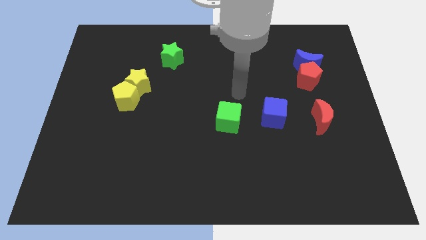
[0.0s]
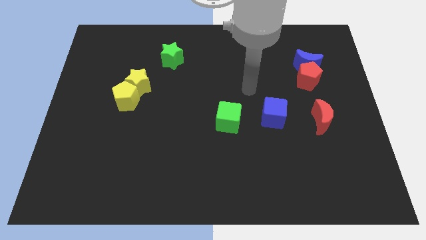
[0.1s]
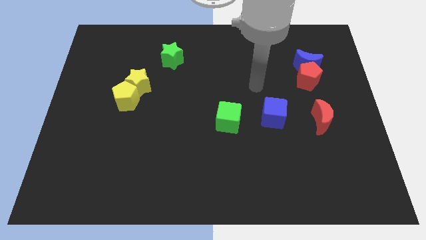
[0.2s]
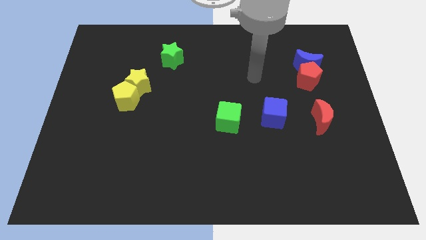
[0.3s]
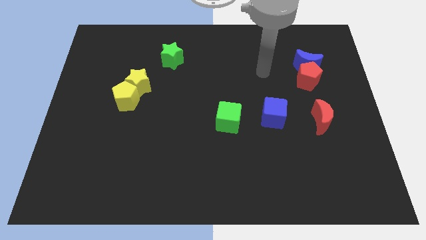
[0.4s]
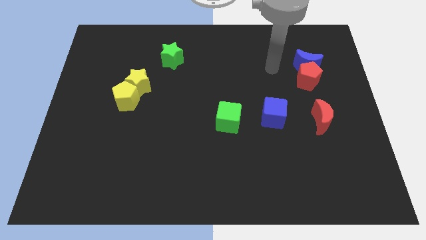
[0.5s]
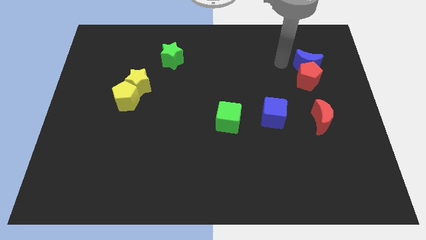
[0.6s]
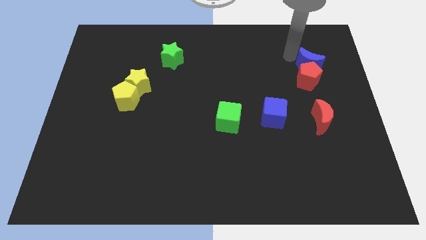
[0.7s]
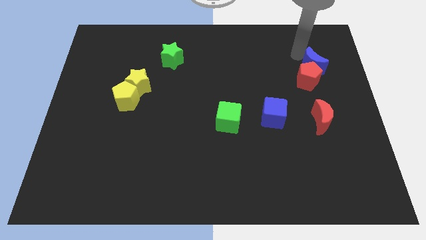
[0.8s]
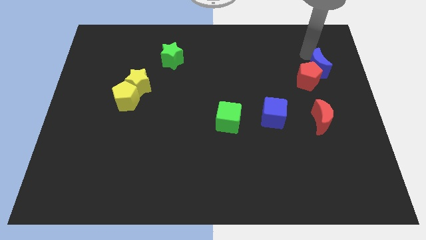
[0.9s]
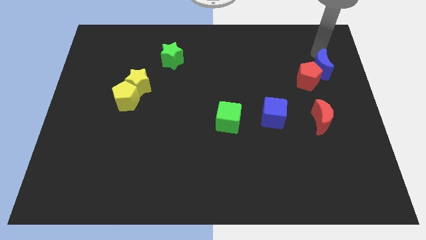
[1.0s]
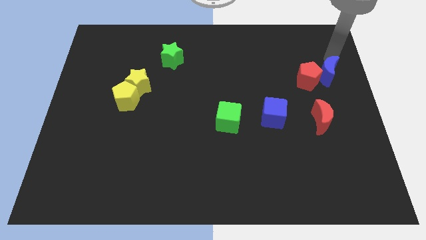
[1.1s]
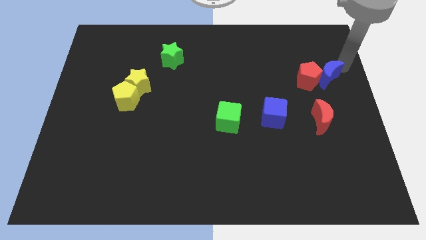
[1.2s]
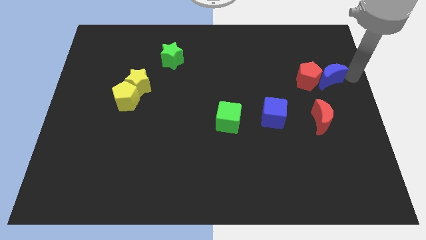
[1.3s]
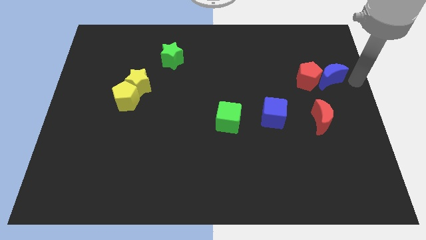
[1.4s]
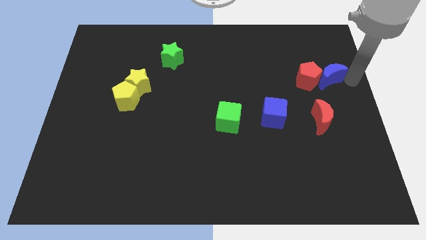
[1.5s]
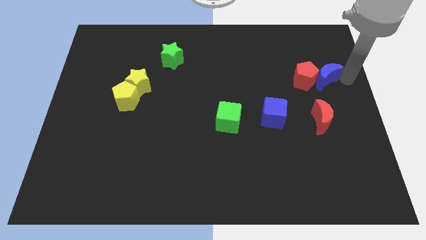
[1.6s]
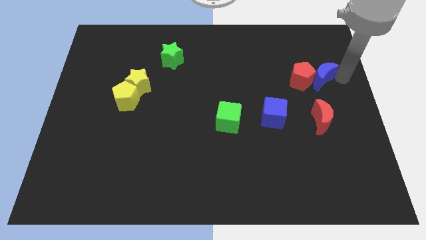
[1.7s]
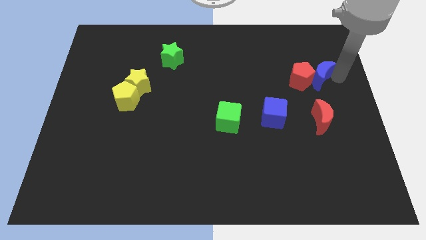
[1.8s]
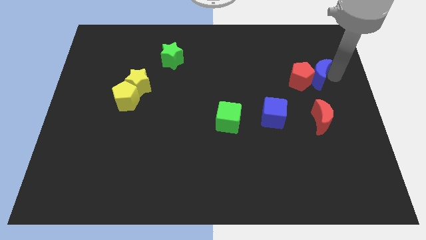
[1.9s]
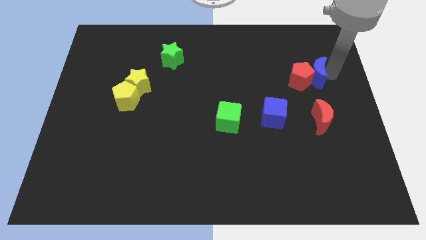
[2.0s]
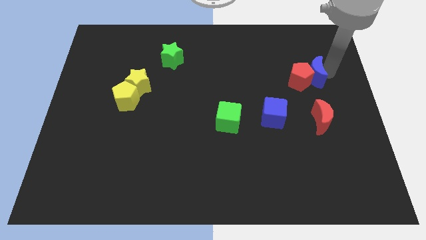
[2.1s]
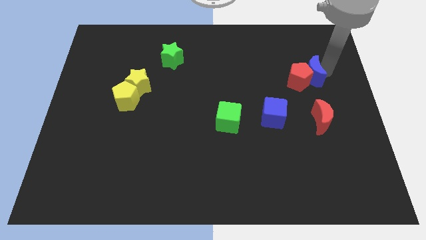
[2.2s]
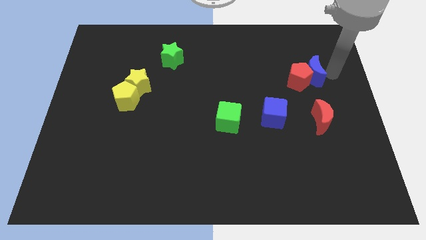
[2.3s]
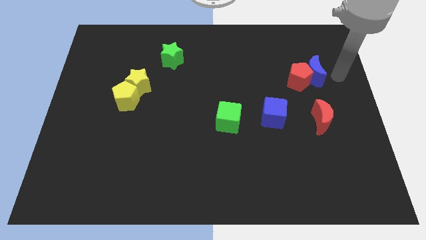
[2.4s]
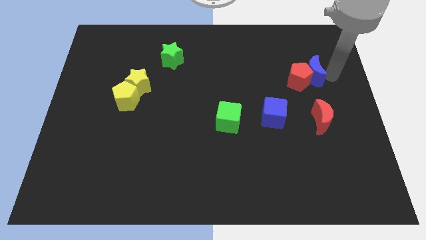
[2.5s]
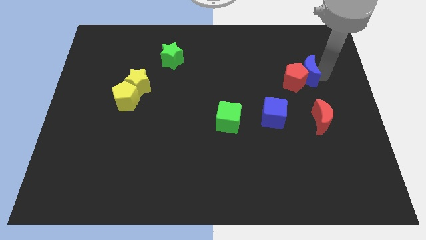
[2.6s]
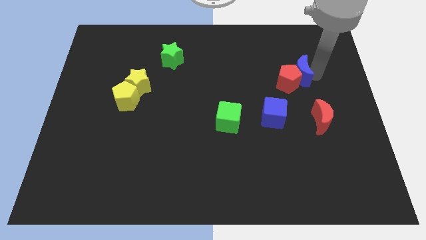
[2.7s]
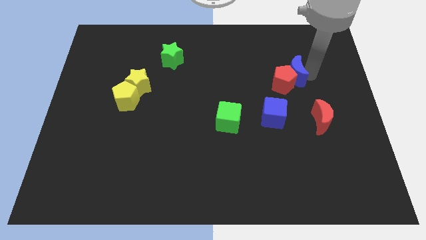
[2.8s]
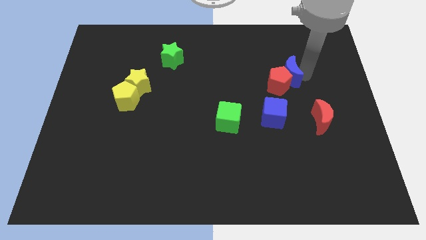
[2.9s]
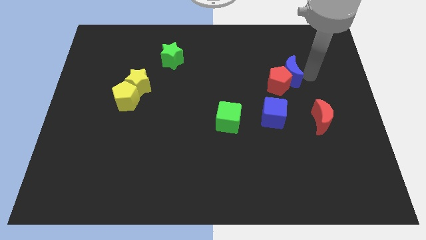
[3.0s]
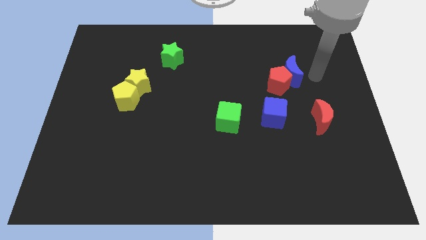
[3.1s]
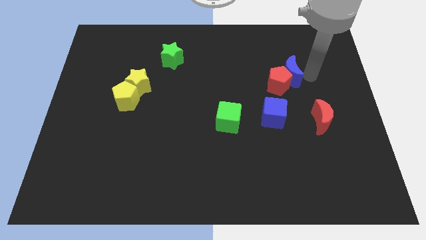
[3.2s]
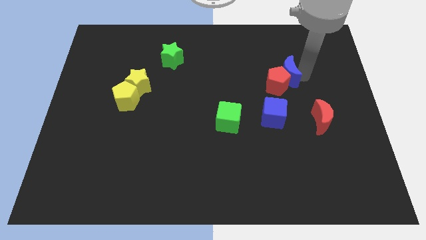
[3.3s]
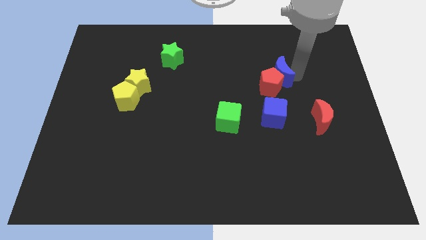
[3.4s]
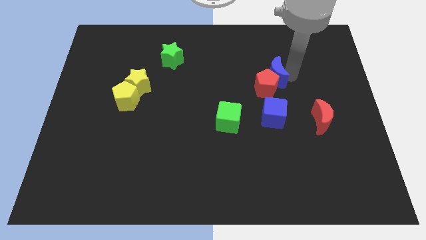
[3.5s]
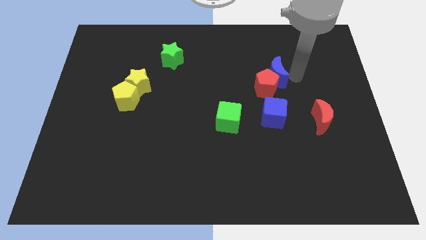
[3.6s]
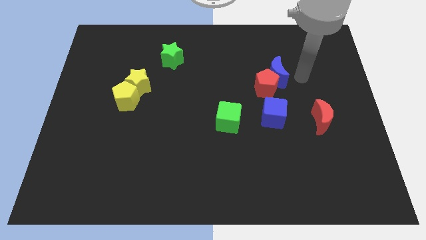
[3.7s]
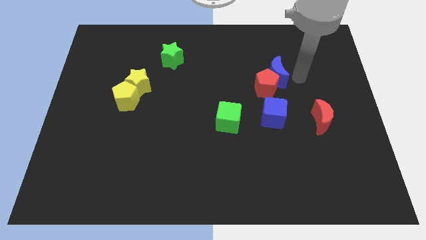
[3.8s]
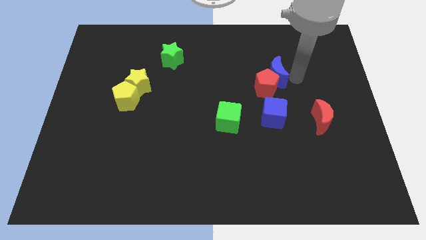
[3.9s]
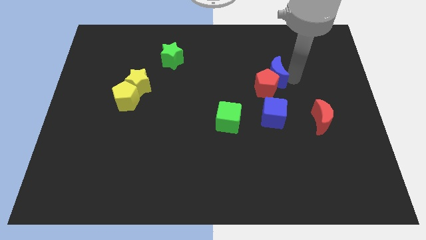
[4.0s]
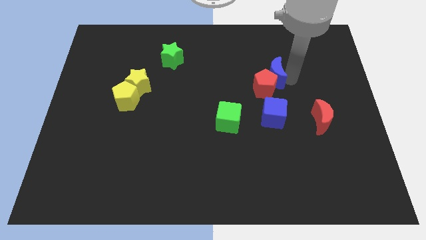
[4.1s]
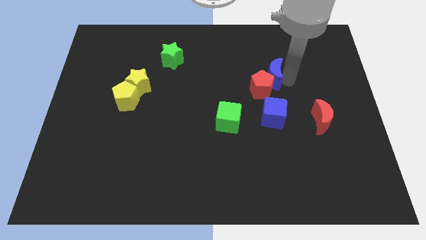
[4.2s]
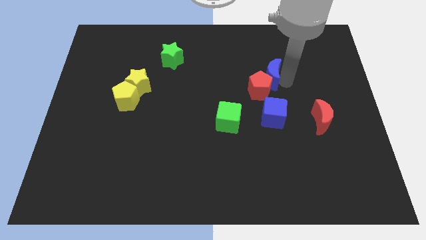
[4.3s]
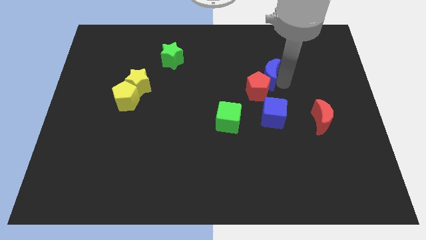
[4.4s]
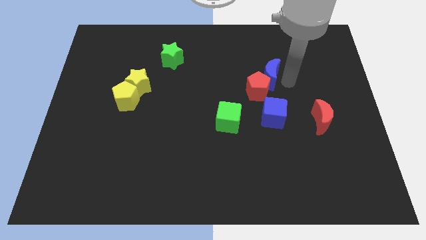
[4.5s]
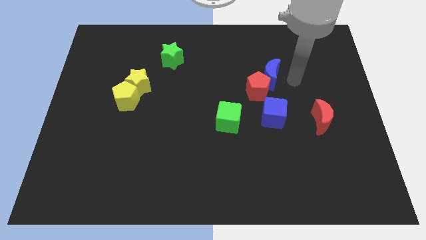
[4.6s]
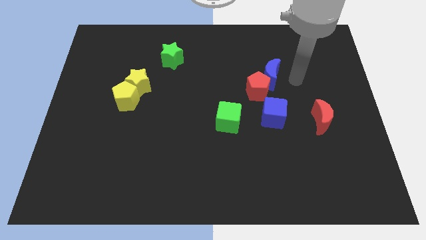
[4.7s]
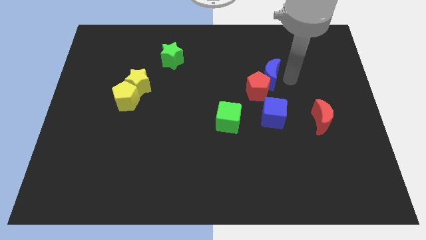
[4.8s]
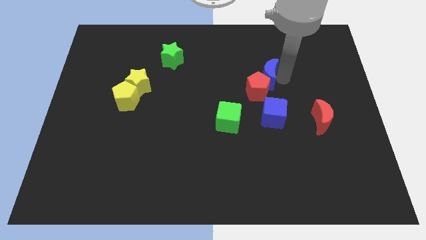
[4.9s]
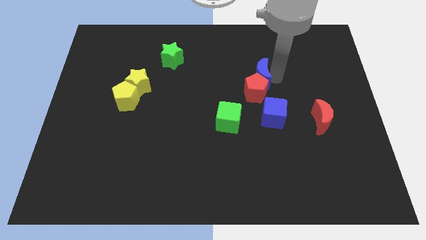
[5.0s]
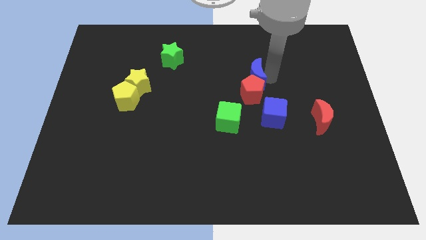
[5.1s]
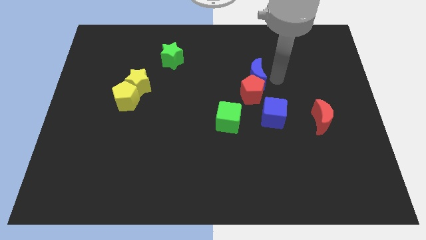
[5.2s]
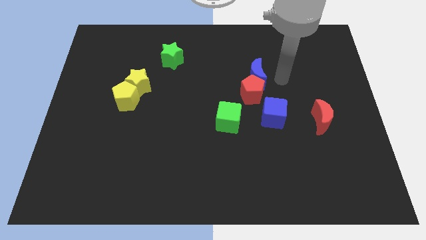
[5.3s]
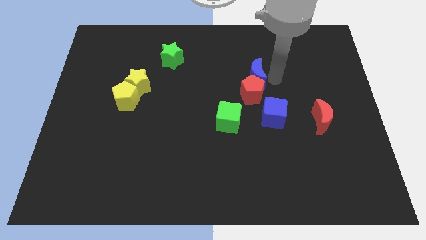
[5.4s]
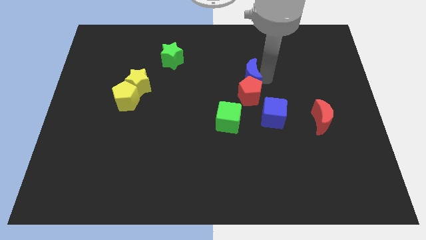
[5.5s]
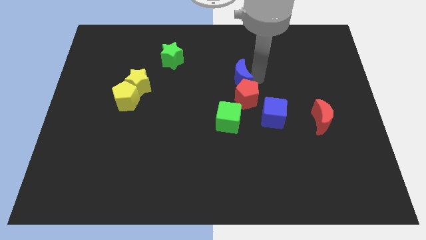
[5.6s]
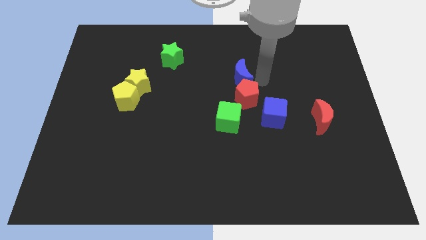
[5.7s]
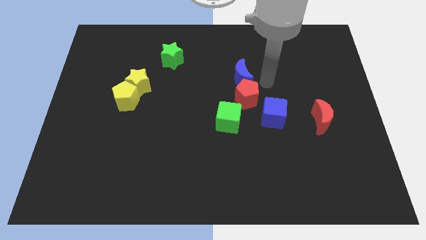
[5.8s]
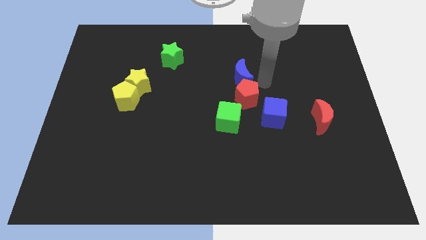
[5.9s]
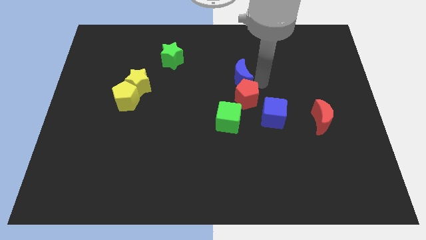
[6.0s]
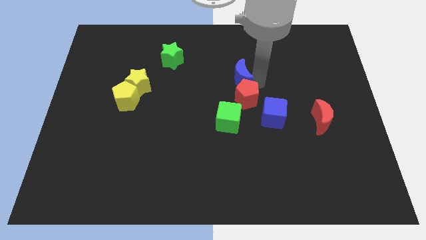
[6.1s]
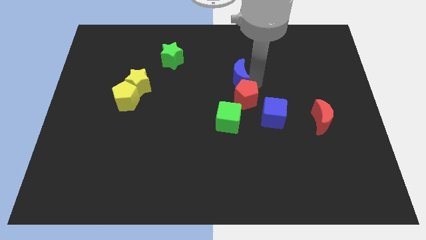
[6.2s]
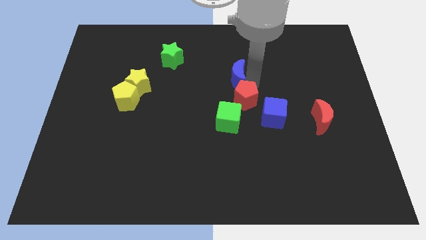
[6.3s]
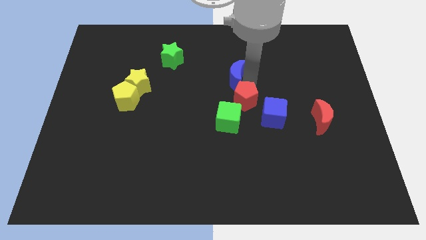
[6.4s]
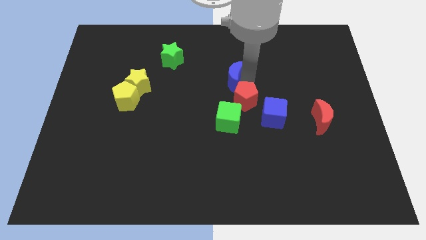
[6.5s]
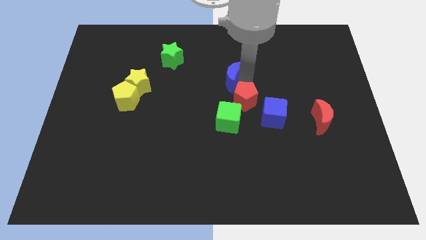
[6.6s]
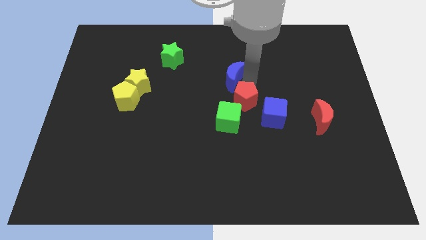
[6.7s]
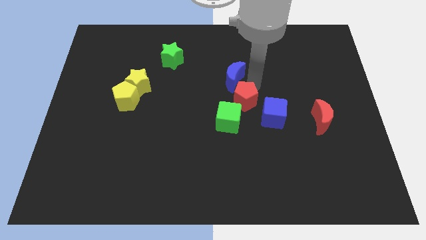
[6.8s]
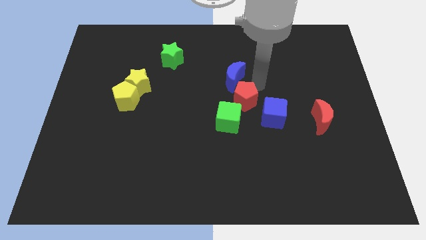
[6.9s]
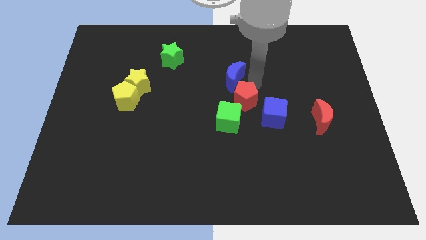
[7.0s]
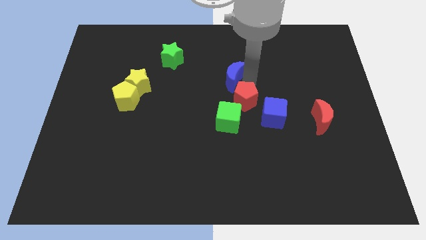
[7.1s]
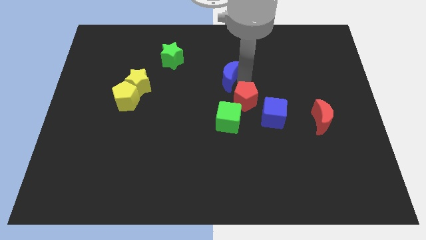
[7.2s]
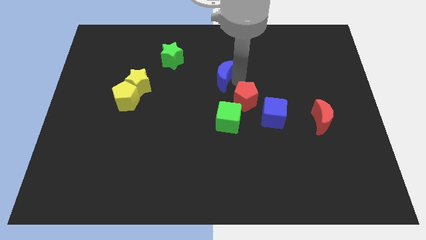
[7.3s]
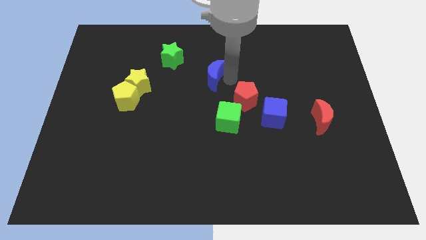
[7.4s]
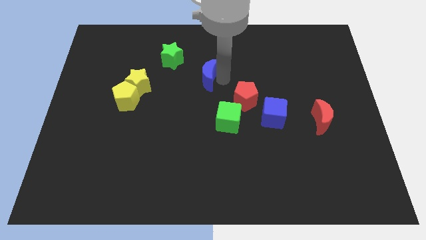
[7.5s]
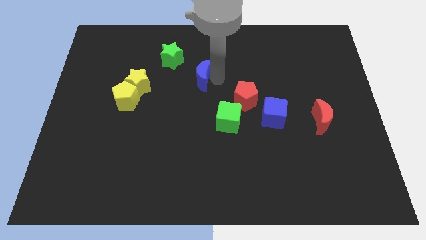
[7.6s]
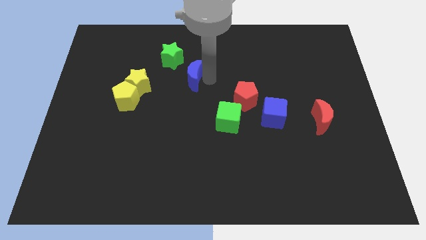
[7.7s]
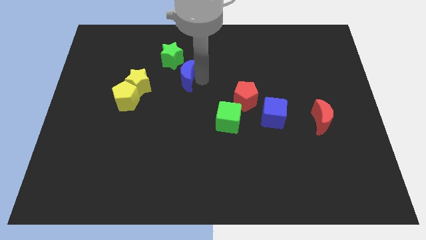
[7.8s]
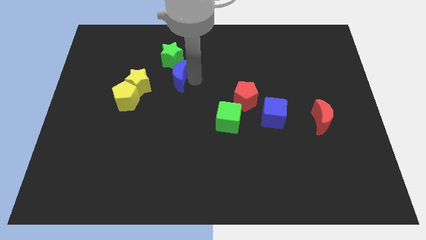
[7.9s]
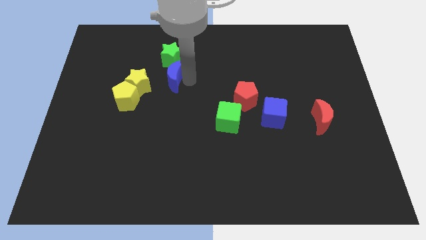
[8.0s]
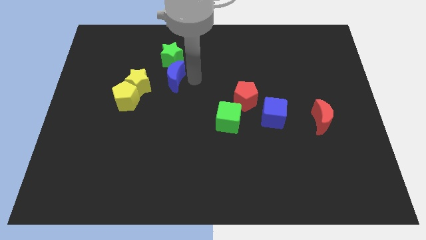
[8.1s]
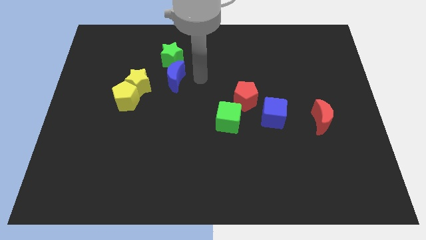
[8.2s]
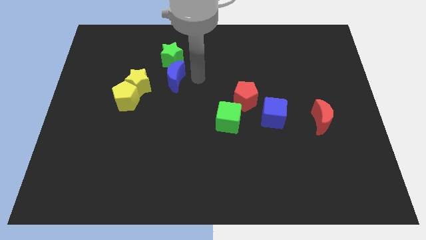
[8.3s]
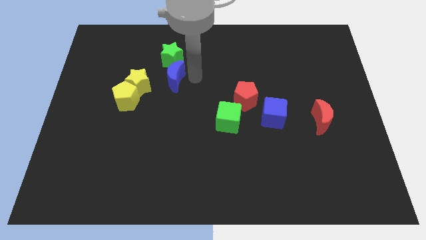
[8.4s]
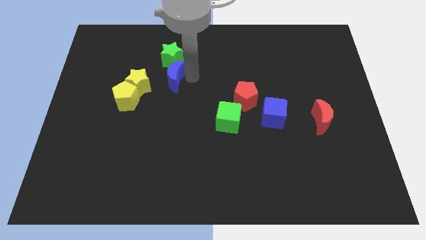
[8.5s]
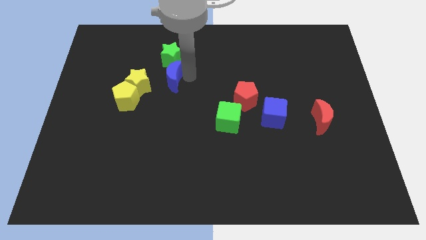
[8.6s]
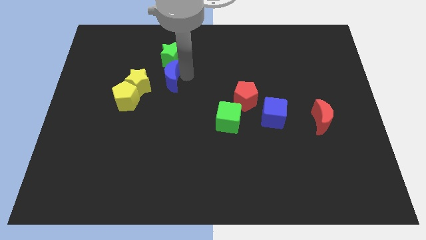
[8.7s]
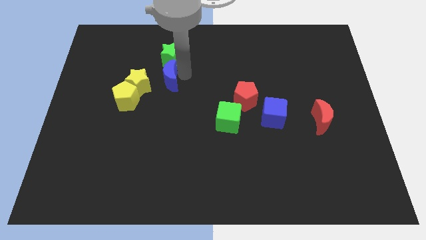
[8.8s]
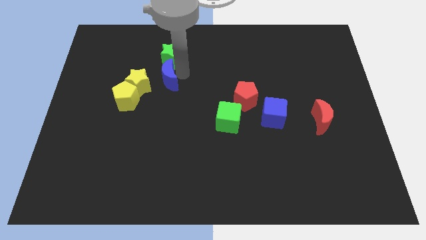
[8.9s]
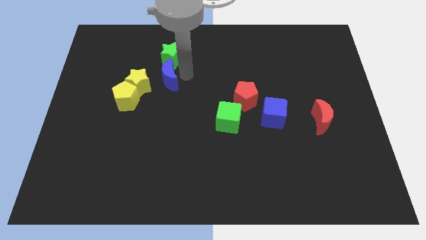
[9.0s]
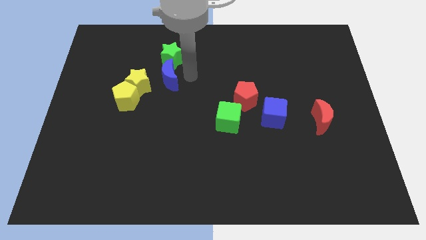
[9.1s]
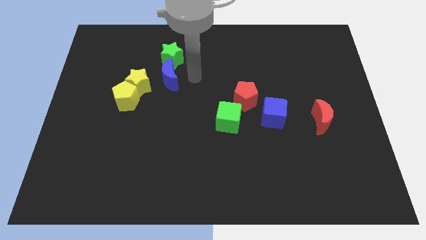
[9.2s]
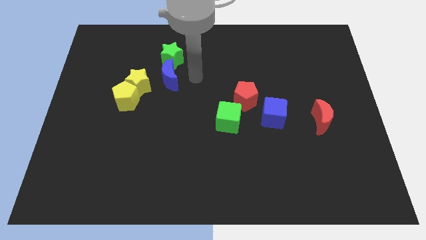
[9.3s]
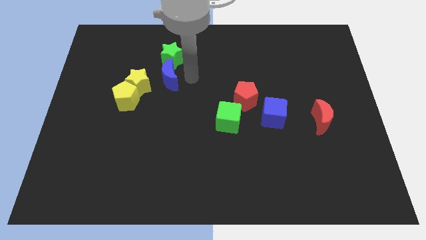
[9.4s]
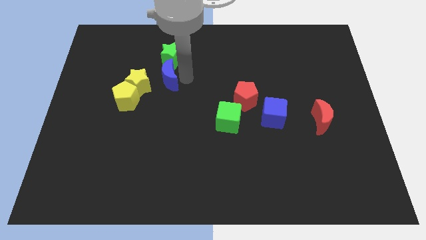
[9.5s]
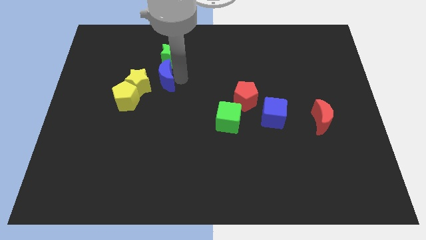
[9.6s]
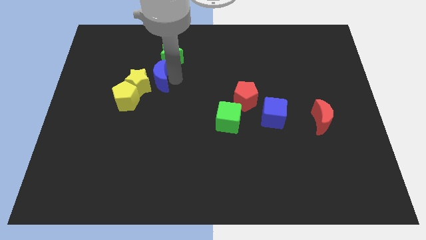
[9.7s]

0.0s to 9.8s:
move the blue moon to the yellow star
